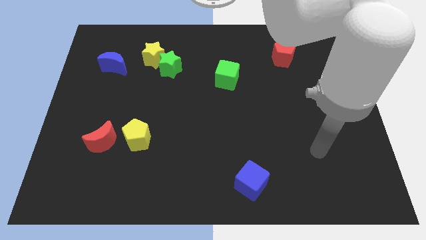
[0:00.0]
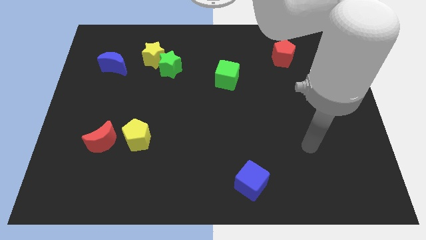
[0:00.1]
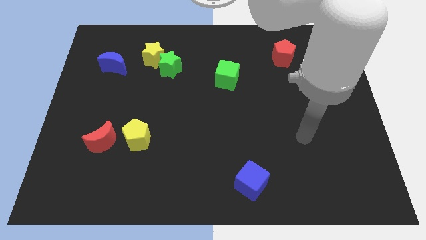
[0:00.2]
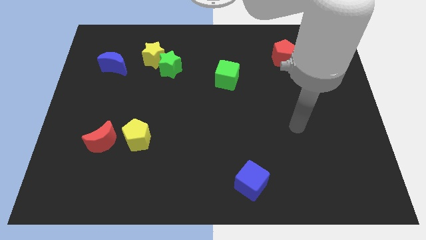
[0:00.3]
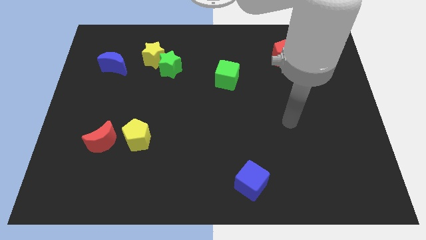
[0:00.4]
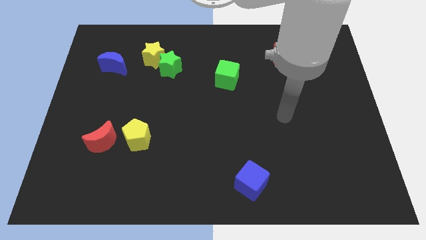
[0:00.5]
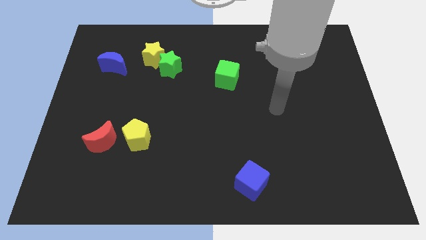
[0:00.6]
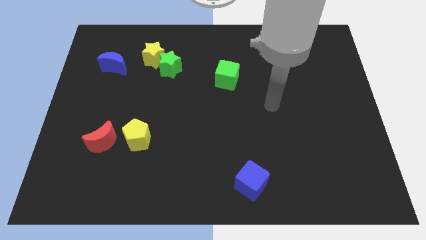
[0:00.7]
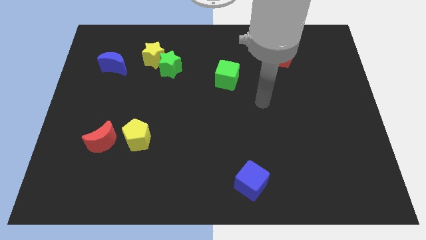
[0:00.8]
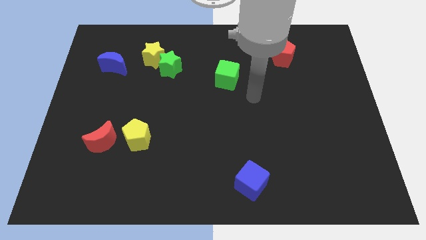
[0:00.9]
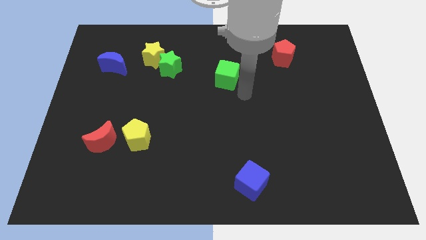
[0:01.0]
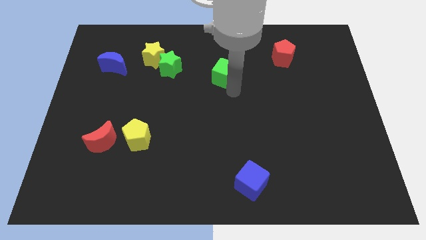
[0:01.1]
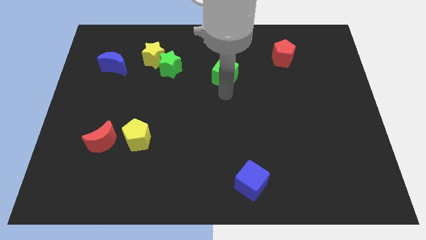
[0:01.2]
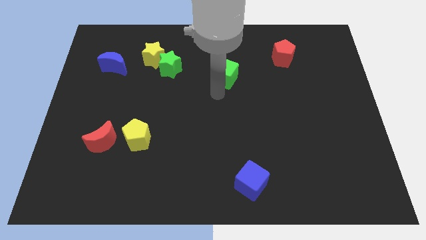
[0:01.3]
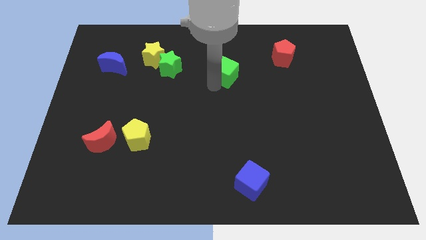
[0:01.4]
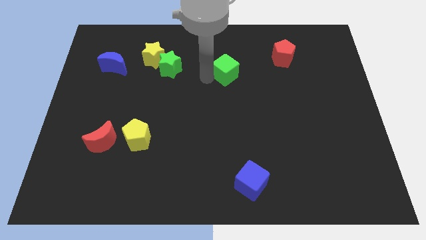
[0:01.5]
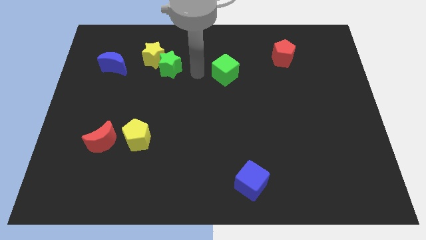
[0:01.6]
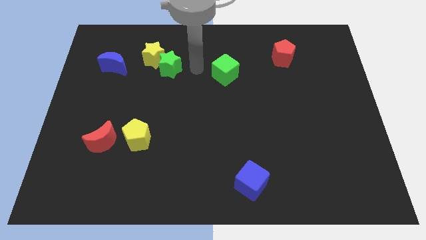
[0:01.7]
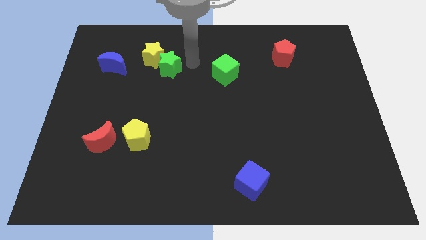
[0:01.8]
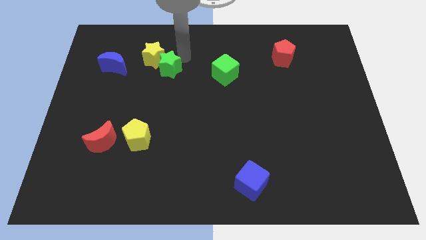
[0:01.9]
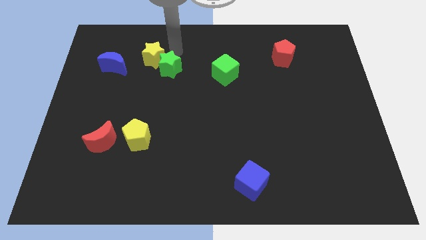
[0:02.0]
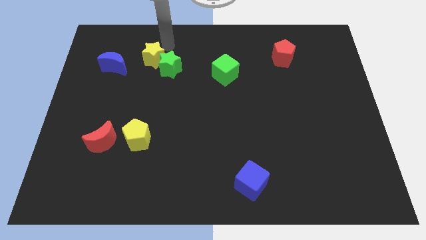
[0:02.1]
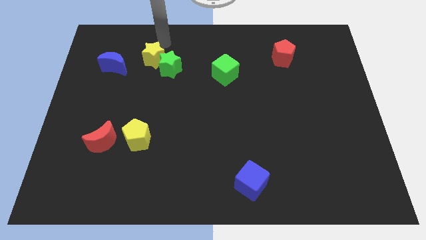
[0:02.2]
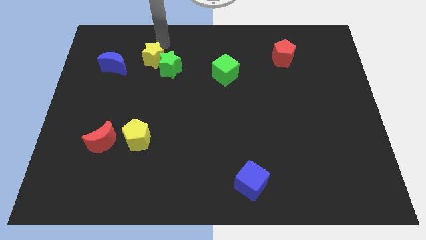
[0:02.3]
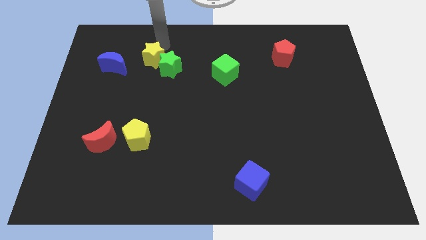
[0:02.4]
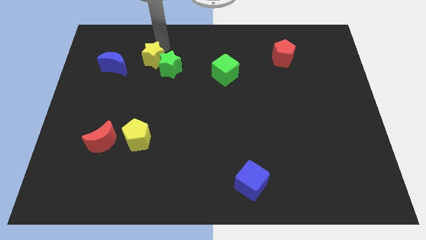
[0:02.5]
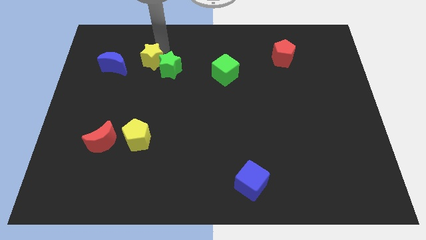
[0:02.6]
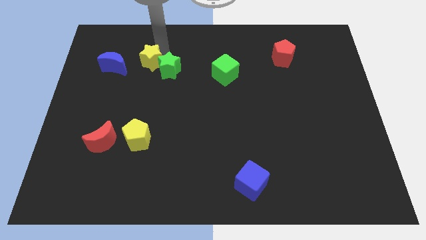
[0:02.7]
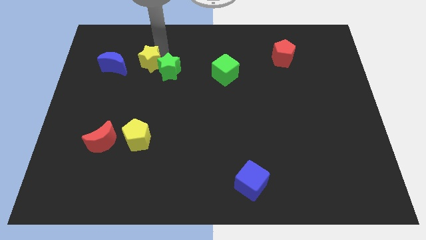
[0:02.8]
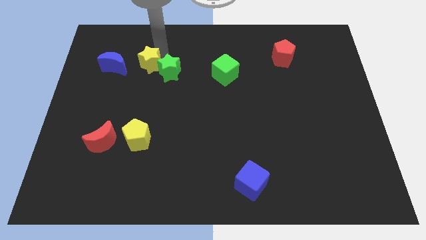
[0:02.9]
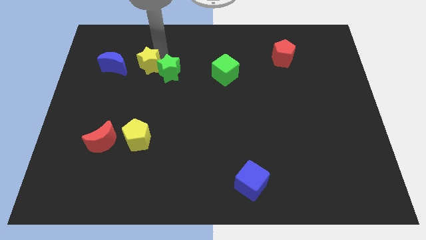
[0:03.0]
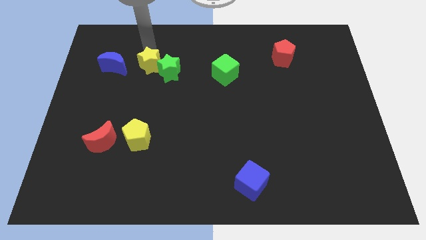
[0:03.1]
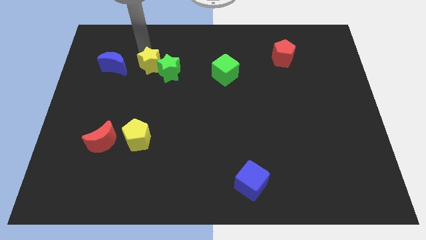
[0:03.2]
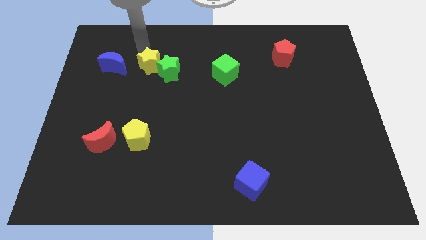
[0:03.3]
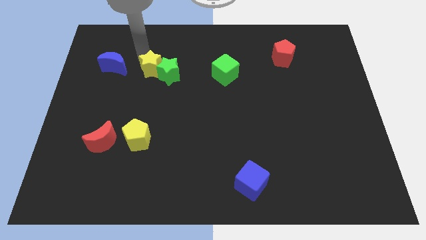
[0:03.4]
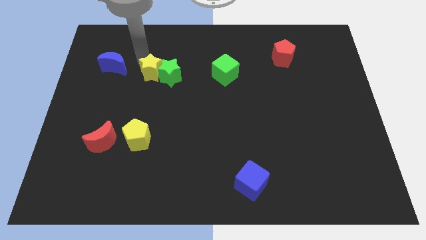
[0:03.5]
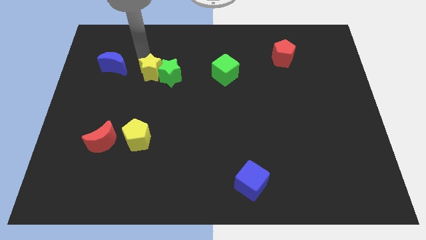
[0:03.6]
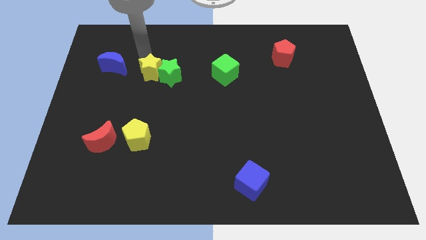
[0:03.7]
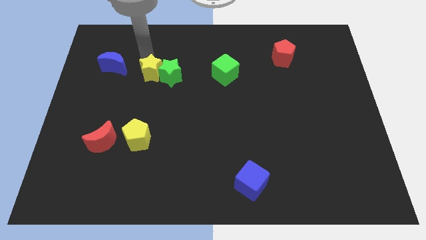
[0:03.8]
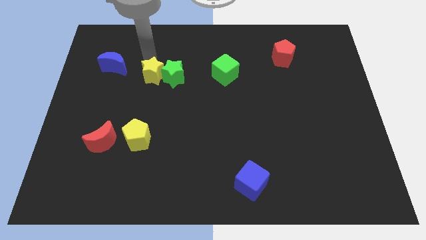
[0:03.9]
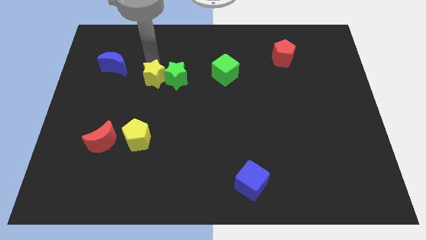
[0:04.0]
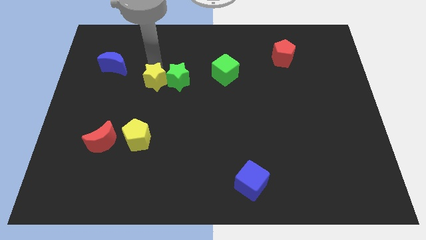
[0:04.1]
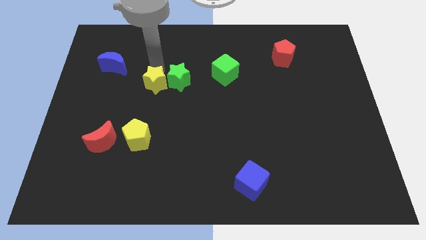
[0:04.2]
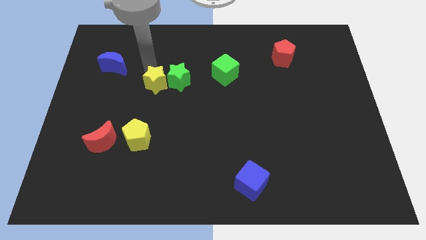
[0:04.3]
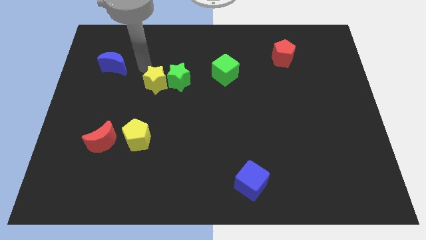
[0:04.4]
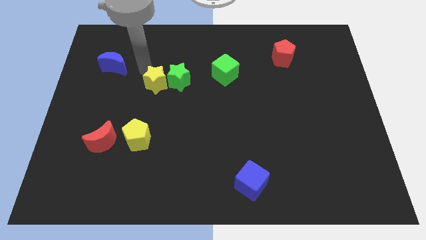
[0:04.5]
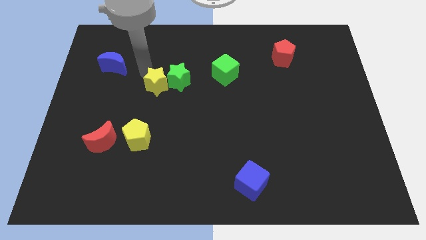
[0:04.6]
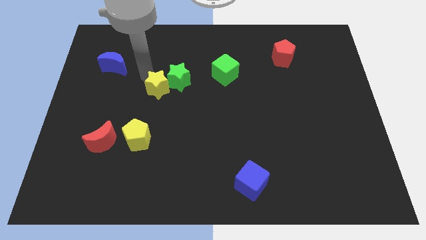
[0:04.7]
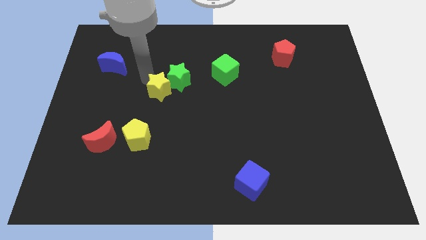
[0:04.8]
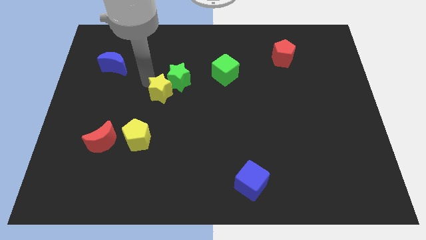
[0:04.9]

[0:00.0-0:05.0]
push the yellow star to the bottom side of the green star

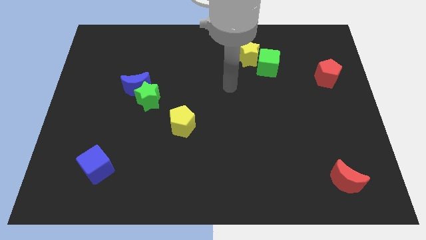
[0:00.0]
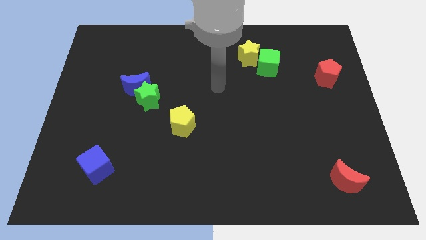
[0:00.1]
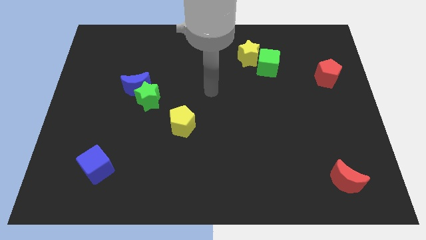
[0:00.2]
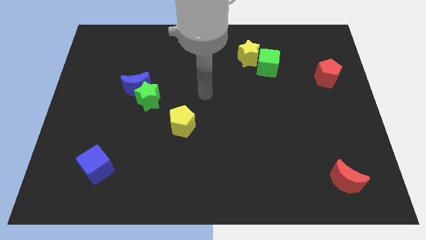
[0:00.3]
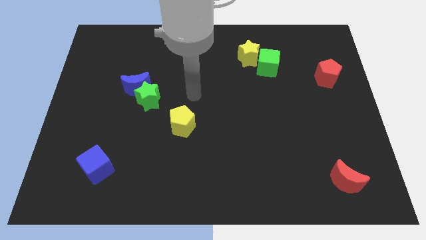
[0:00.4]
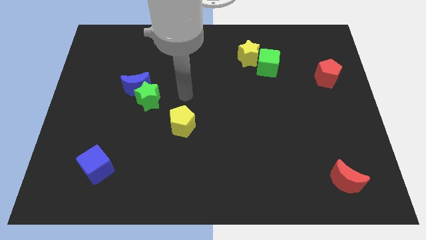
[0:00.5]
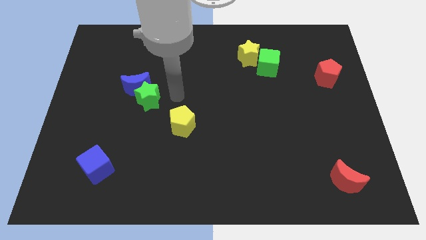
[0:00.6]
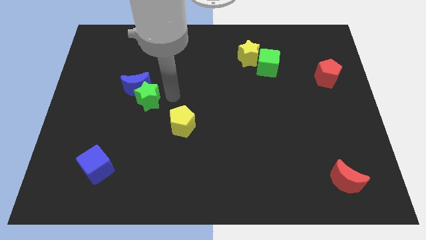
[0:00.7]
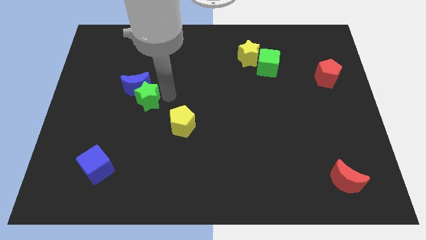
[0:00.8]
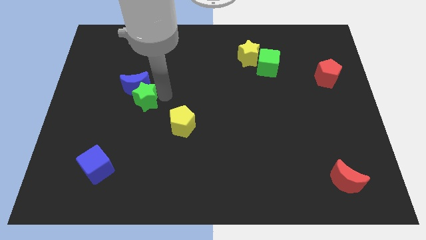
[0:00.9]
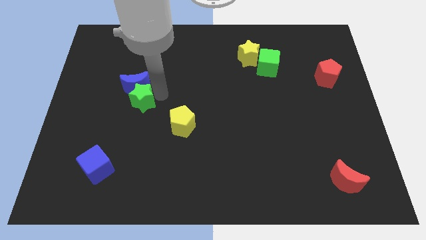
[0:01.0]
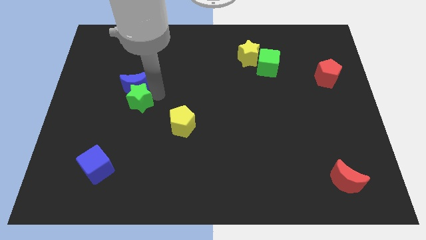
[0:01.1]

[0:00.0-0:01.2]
slide the green star diagonally down and to the left of the blue moon
